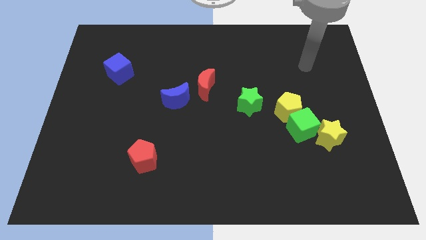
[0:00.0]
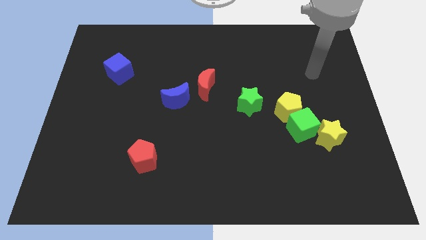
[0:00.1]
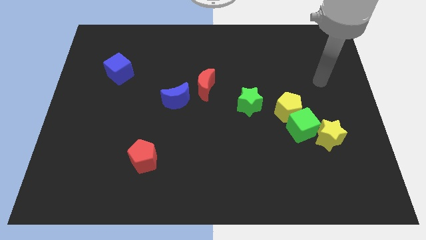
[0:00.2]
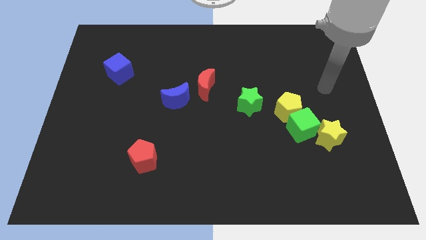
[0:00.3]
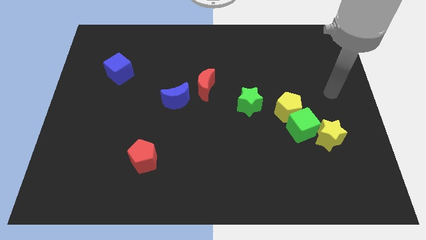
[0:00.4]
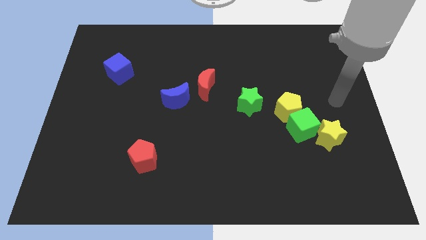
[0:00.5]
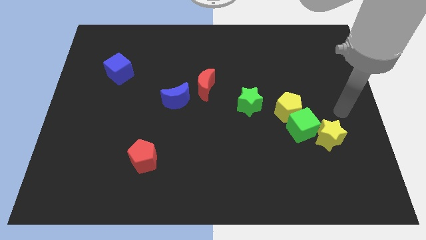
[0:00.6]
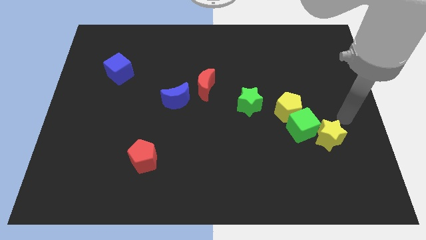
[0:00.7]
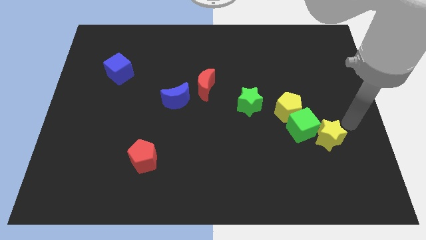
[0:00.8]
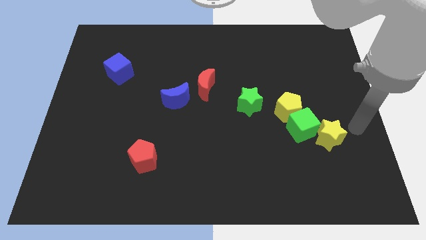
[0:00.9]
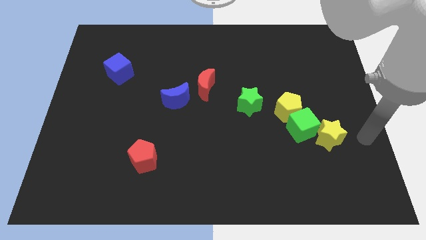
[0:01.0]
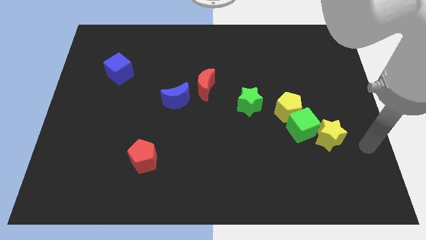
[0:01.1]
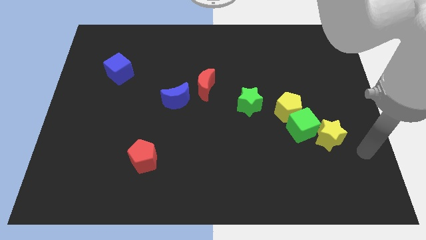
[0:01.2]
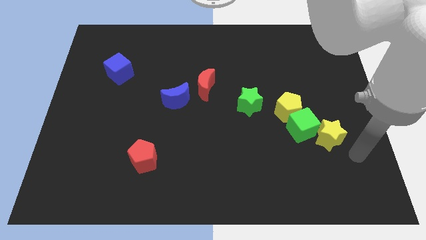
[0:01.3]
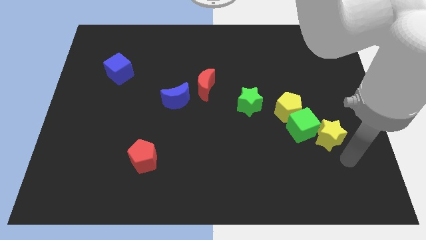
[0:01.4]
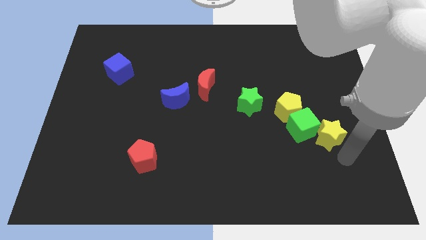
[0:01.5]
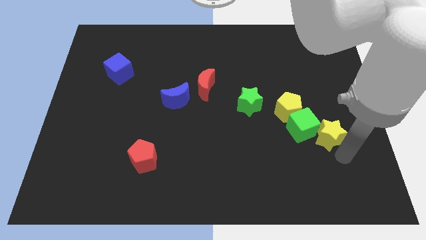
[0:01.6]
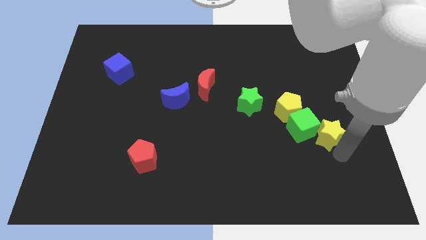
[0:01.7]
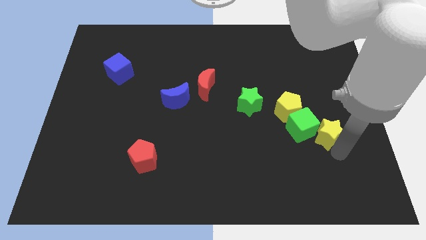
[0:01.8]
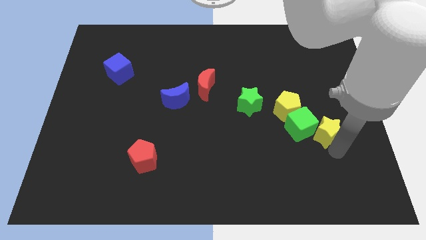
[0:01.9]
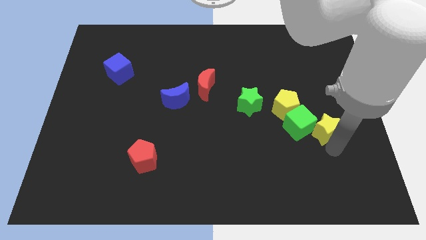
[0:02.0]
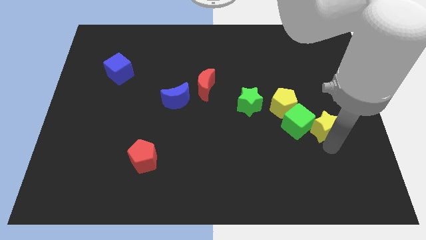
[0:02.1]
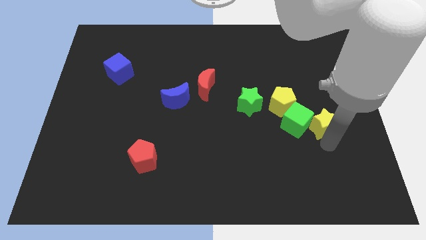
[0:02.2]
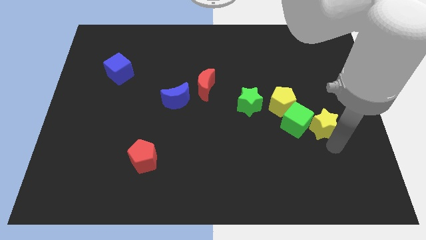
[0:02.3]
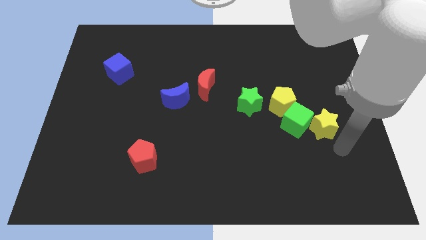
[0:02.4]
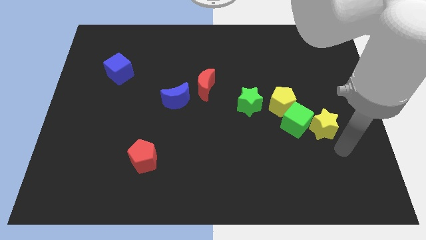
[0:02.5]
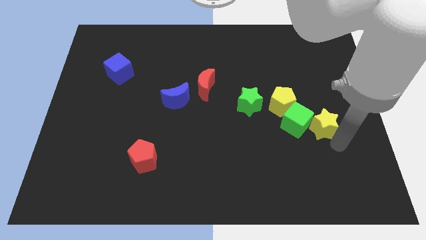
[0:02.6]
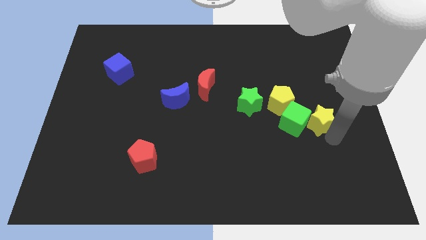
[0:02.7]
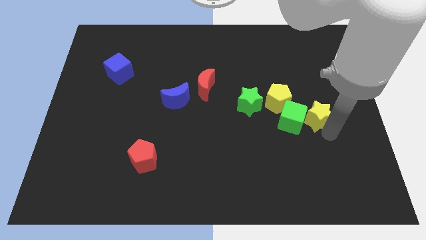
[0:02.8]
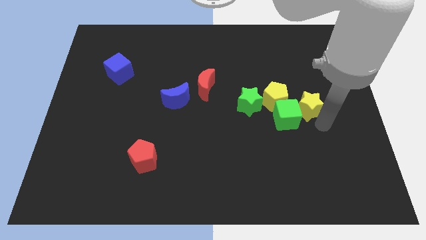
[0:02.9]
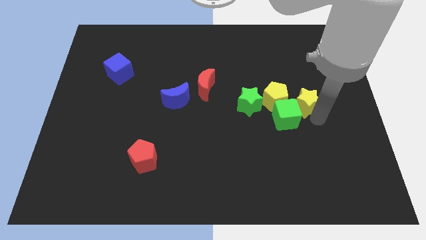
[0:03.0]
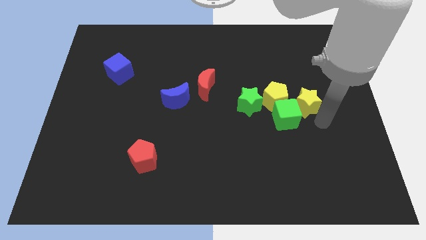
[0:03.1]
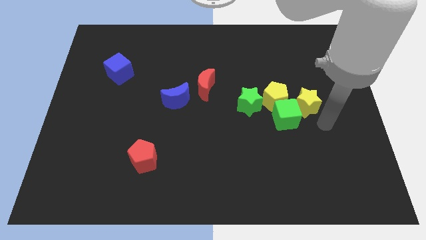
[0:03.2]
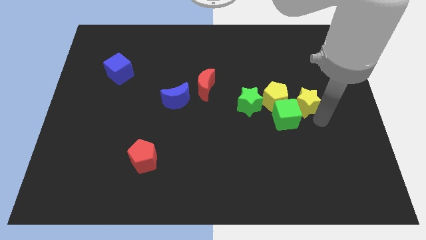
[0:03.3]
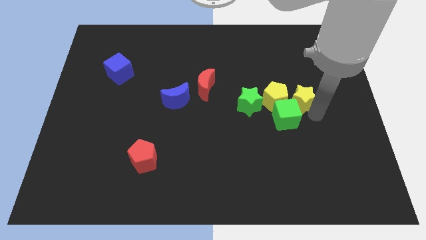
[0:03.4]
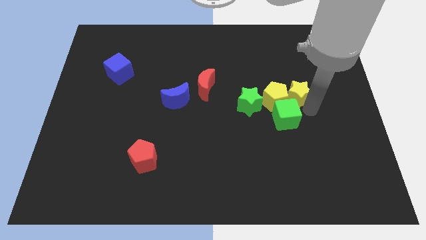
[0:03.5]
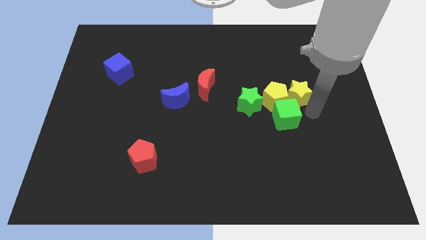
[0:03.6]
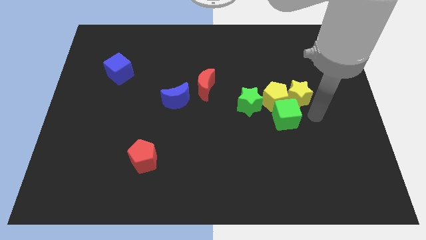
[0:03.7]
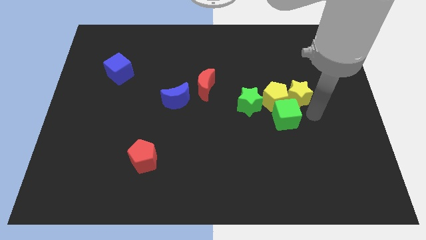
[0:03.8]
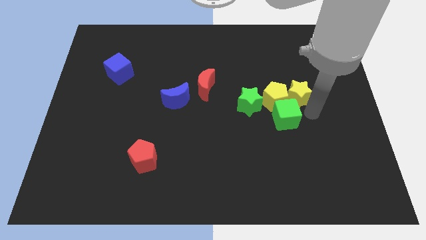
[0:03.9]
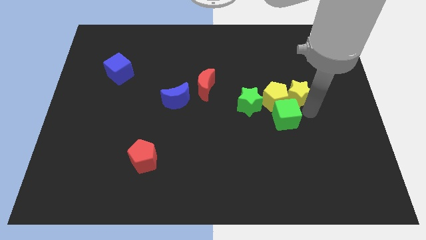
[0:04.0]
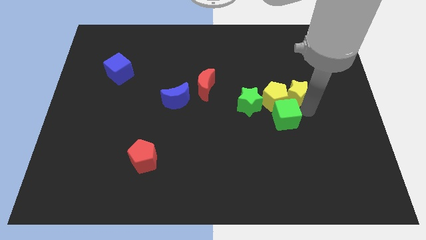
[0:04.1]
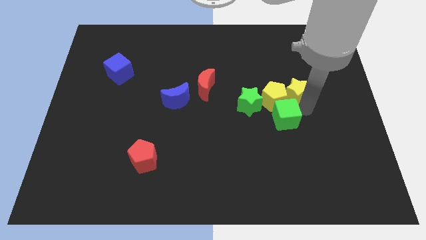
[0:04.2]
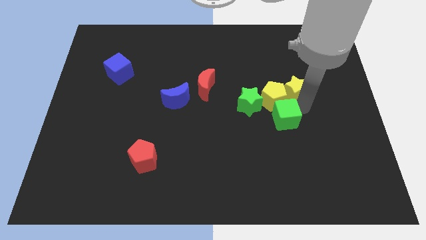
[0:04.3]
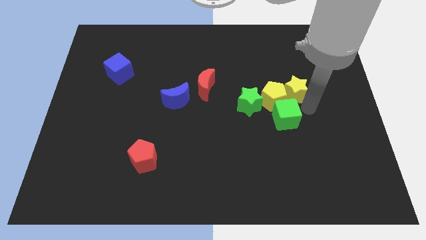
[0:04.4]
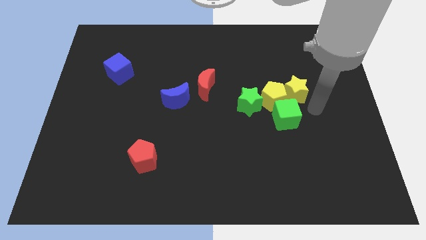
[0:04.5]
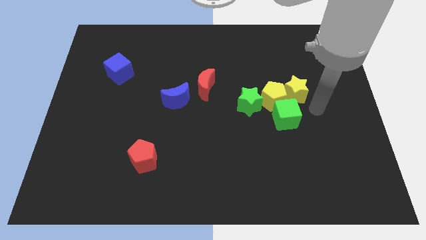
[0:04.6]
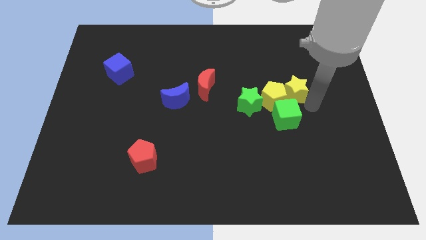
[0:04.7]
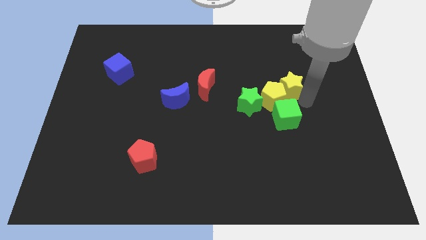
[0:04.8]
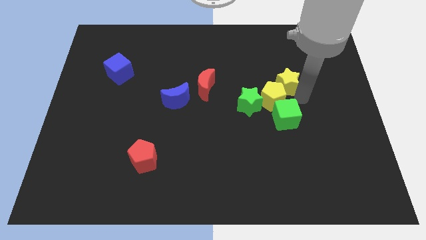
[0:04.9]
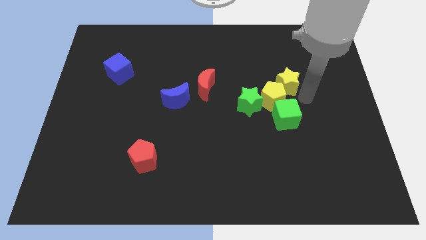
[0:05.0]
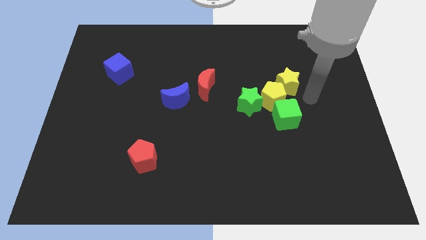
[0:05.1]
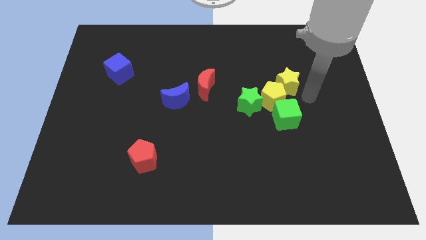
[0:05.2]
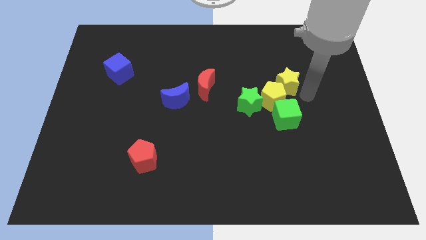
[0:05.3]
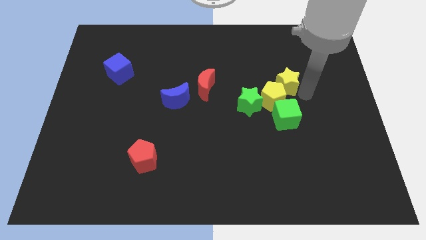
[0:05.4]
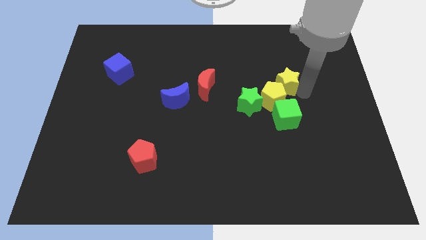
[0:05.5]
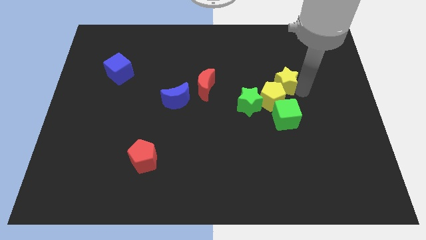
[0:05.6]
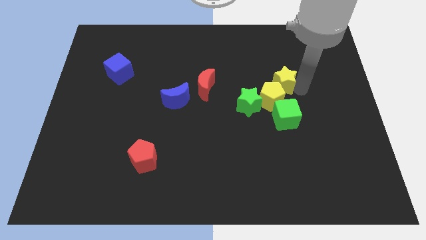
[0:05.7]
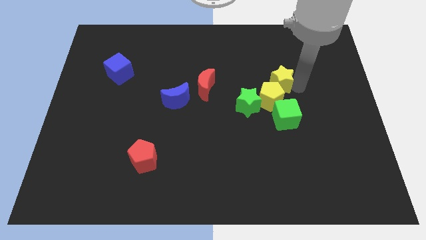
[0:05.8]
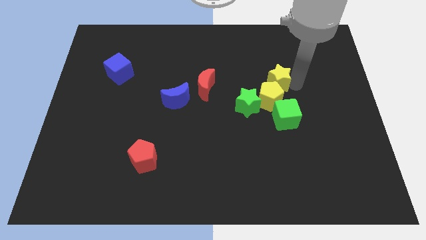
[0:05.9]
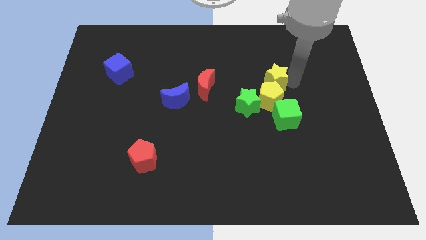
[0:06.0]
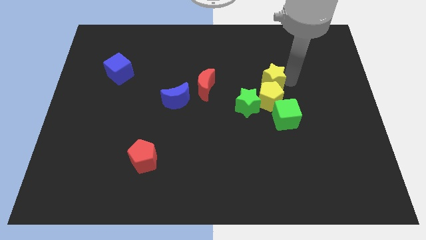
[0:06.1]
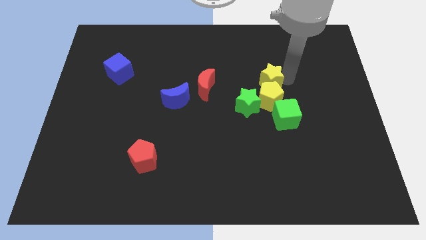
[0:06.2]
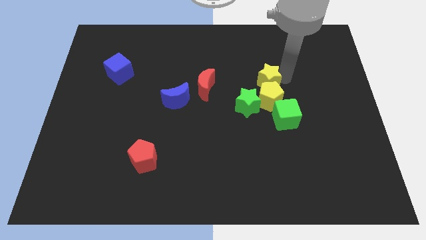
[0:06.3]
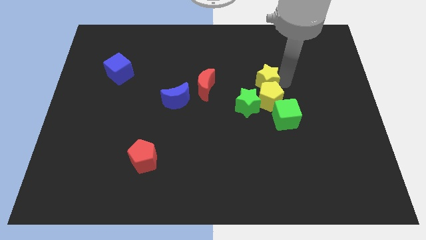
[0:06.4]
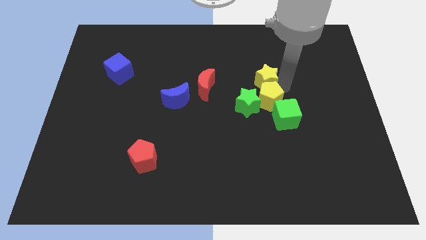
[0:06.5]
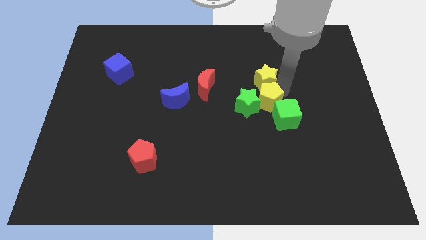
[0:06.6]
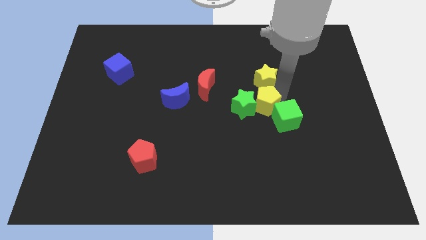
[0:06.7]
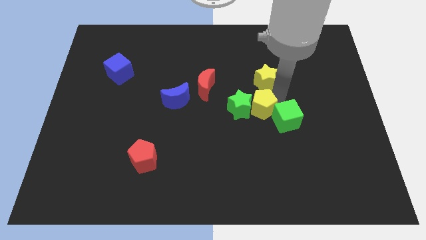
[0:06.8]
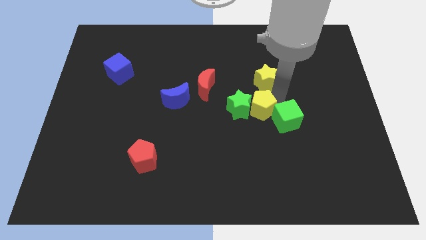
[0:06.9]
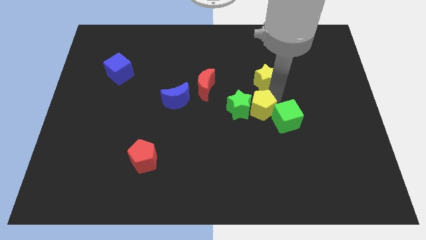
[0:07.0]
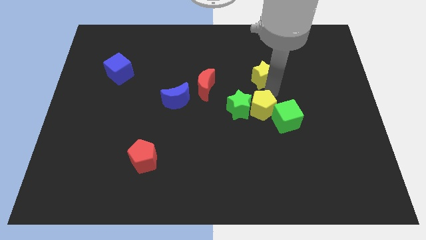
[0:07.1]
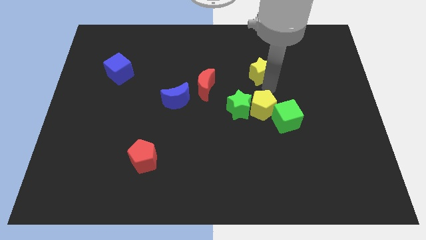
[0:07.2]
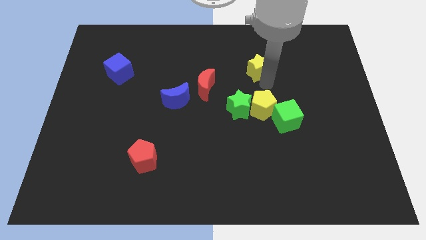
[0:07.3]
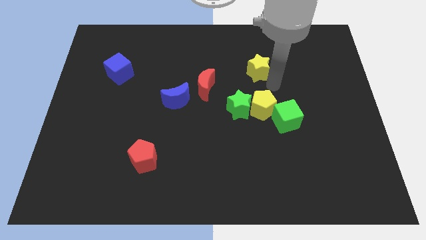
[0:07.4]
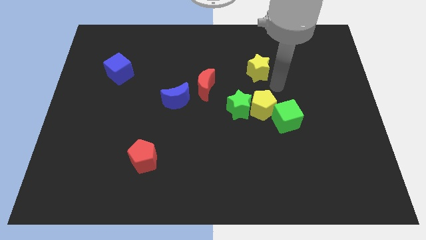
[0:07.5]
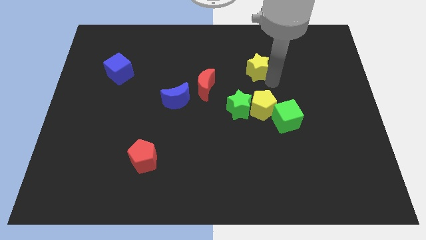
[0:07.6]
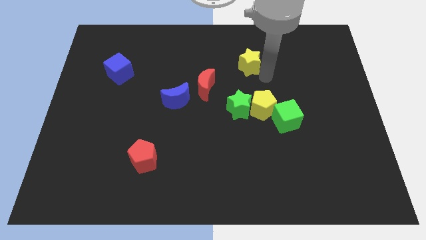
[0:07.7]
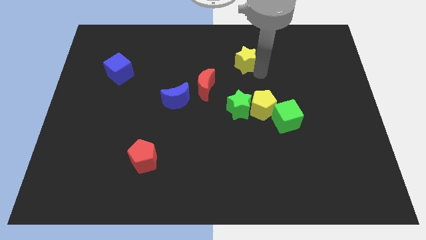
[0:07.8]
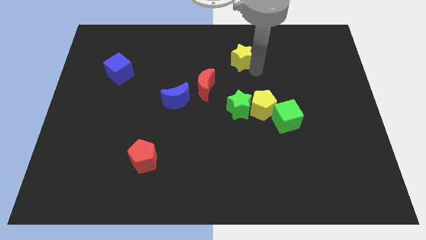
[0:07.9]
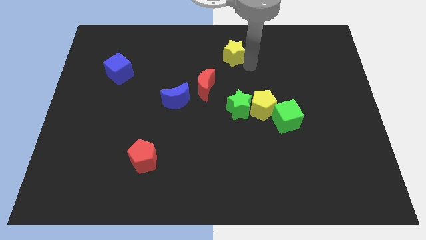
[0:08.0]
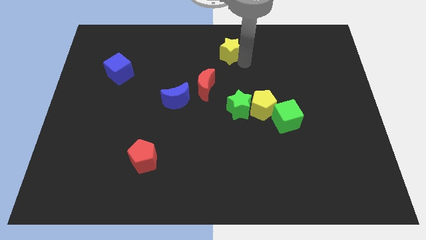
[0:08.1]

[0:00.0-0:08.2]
put the yellow star to the top
